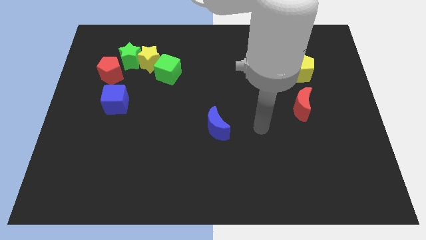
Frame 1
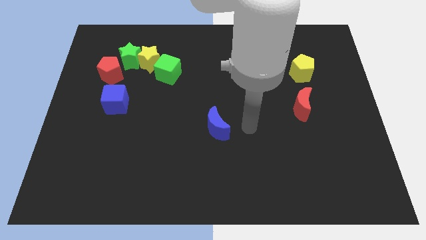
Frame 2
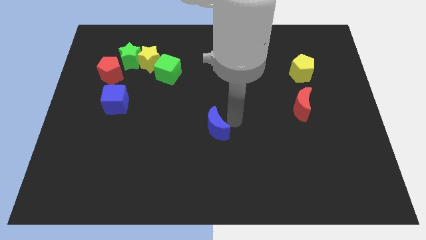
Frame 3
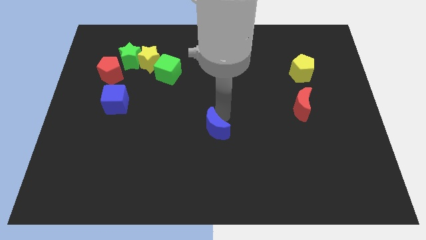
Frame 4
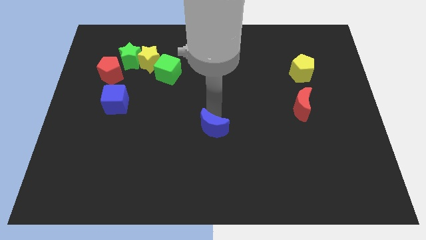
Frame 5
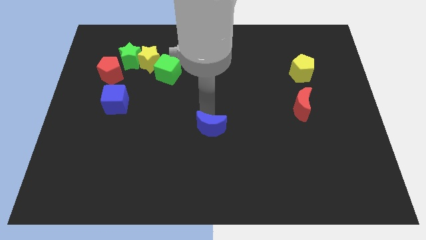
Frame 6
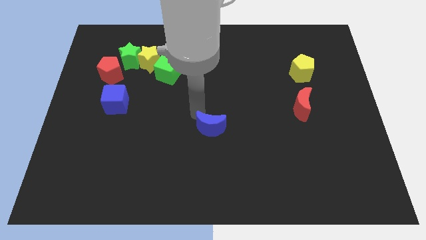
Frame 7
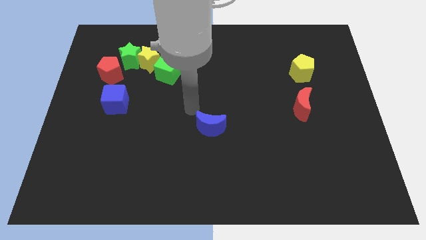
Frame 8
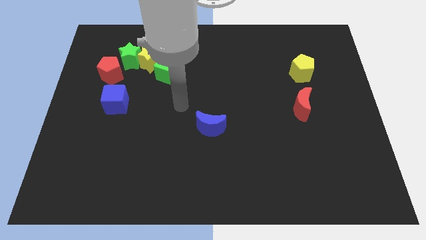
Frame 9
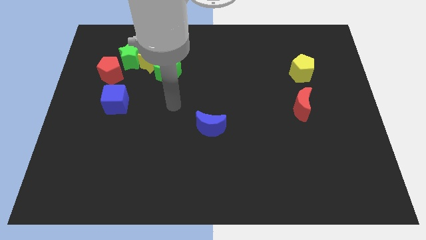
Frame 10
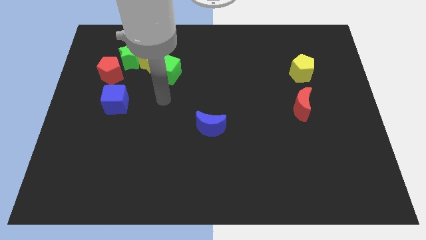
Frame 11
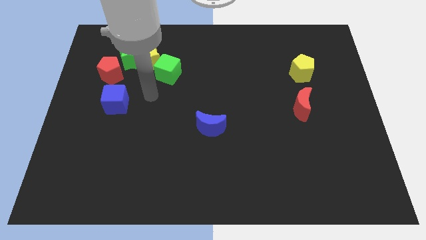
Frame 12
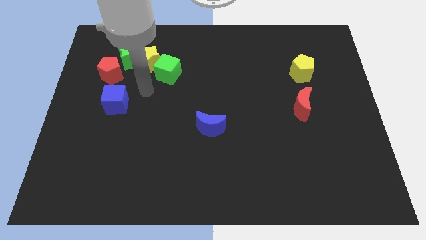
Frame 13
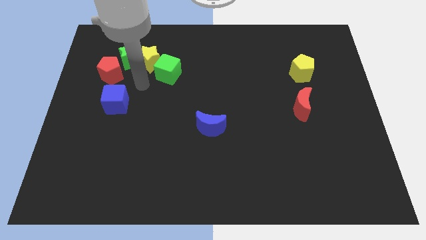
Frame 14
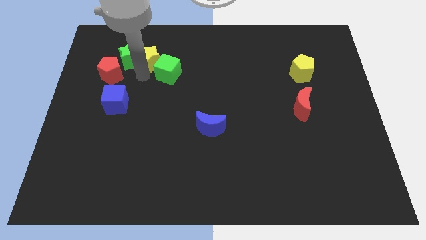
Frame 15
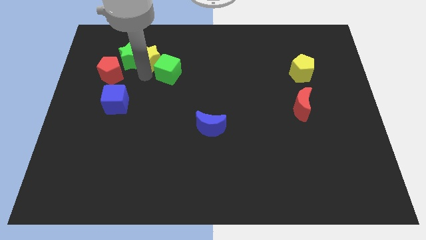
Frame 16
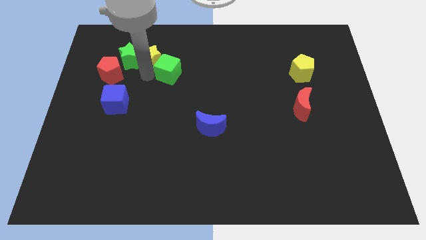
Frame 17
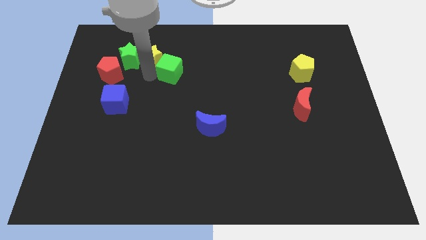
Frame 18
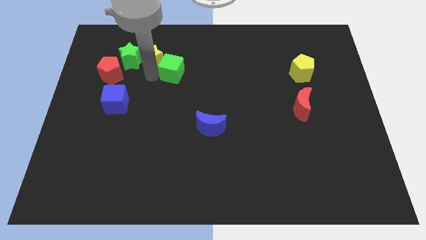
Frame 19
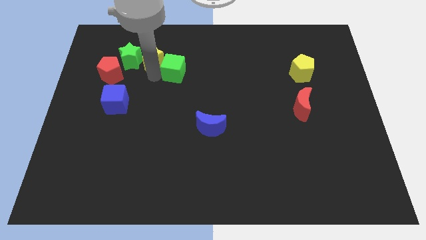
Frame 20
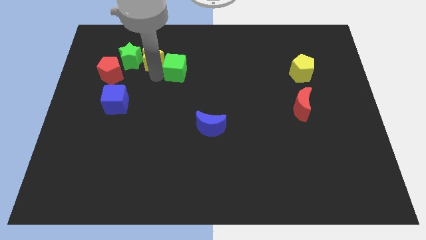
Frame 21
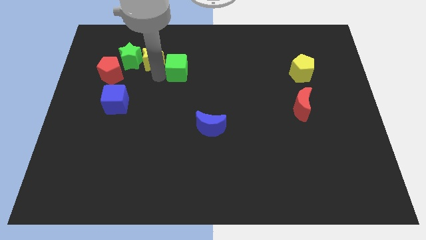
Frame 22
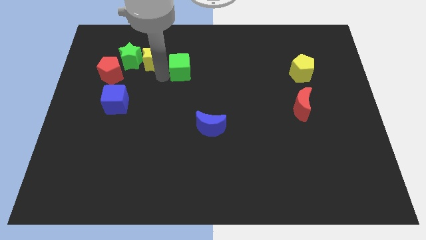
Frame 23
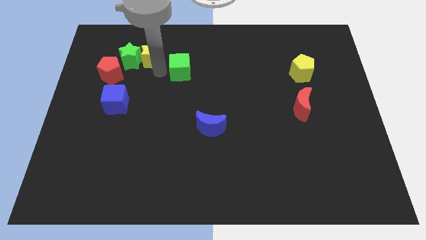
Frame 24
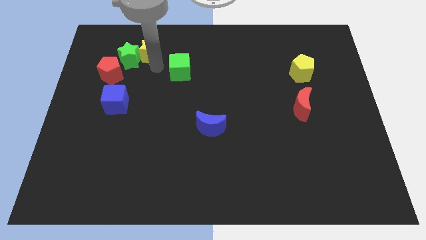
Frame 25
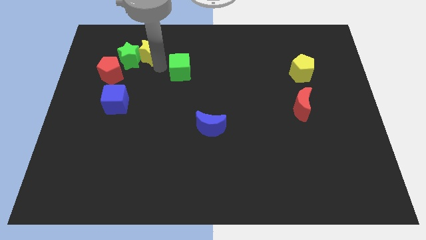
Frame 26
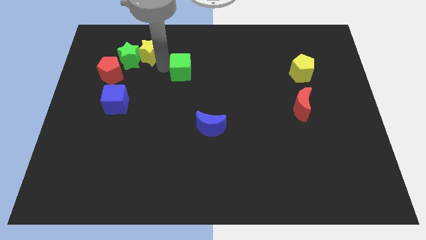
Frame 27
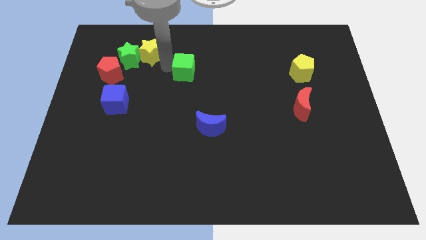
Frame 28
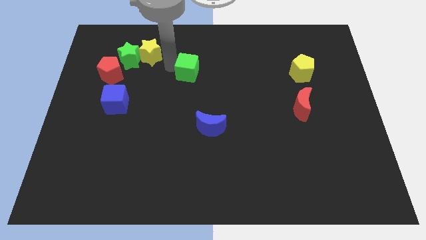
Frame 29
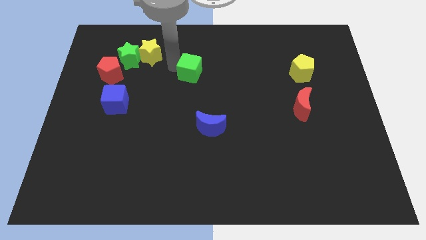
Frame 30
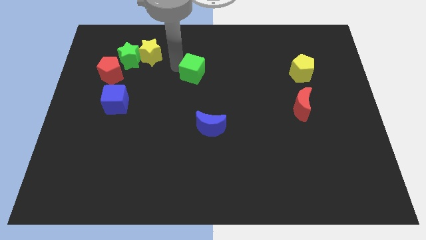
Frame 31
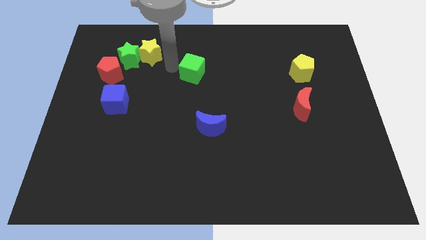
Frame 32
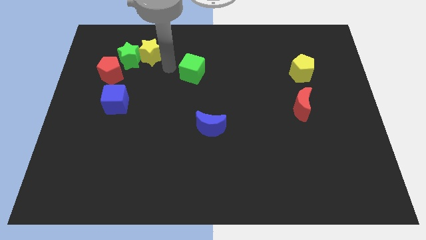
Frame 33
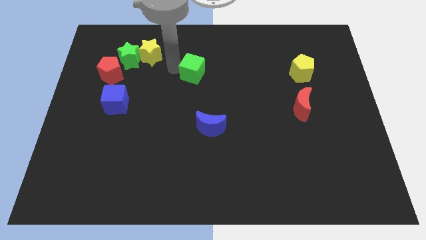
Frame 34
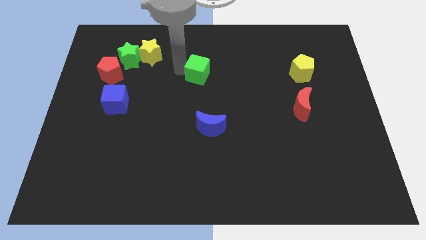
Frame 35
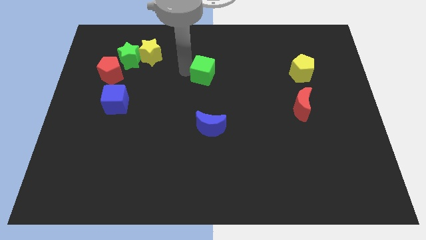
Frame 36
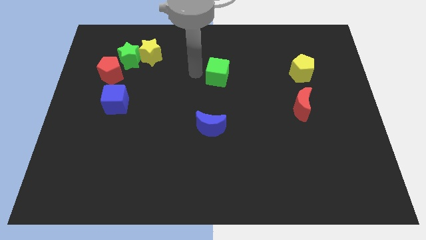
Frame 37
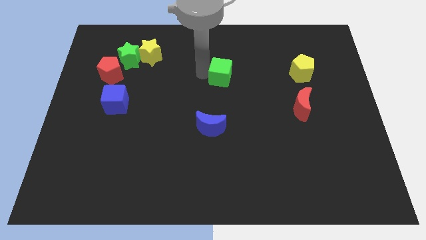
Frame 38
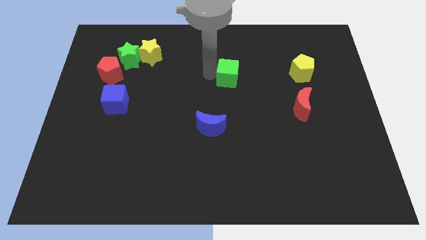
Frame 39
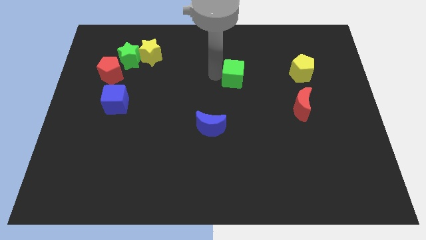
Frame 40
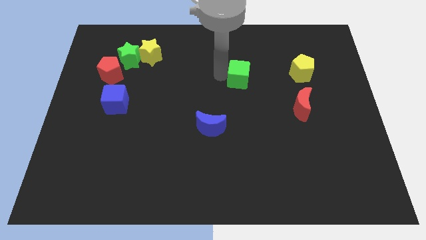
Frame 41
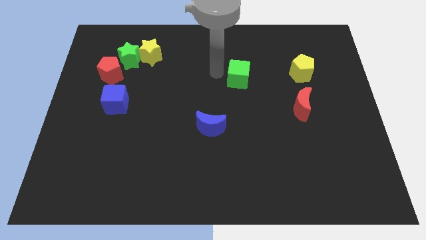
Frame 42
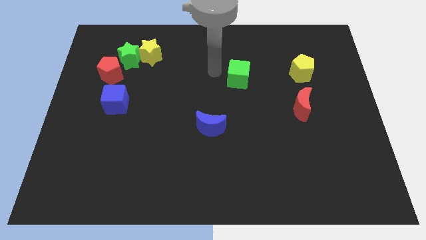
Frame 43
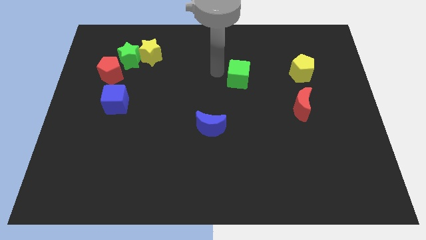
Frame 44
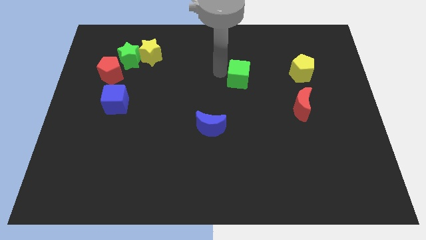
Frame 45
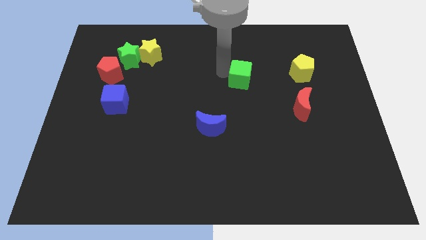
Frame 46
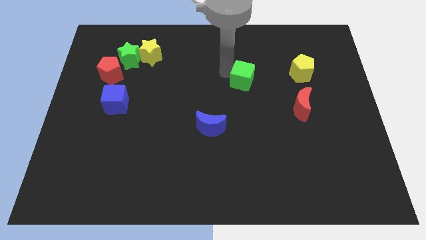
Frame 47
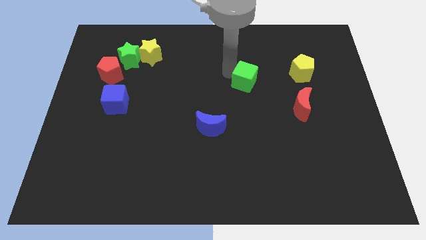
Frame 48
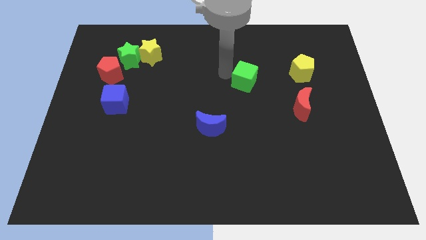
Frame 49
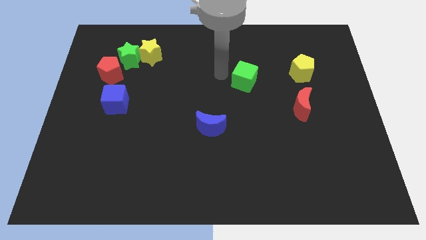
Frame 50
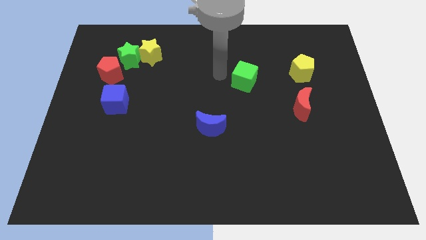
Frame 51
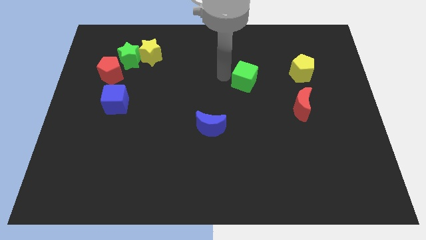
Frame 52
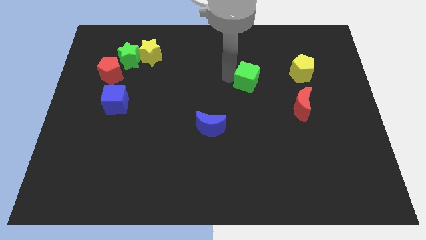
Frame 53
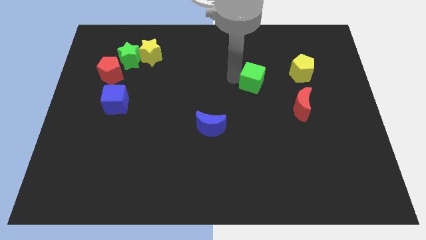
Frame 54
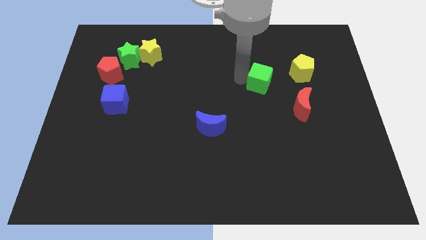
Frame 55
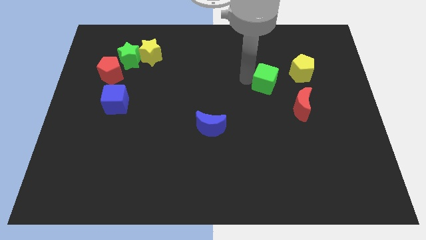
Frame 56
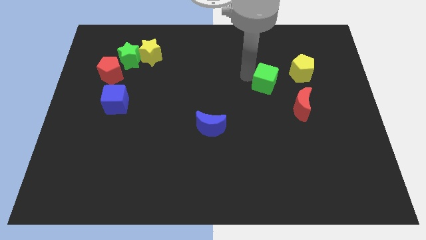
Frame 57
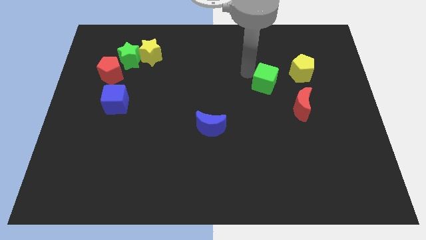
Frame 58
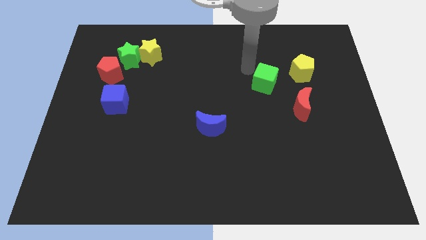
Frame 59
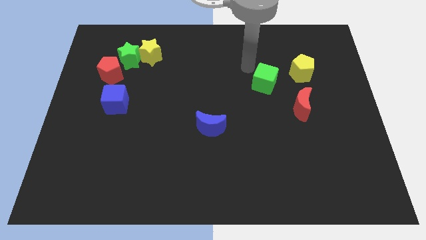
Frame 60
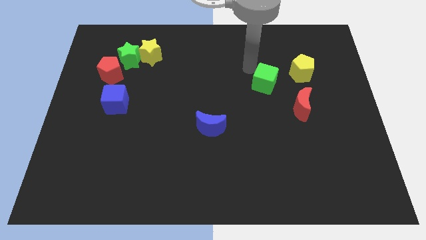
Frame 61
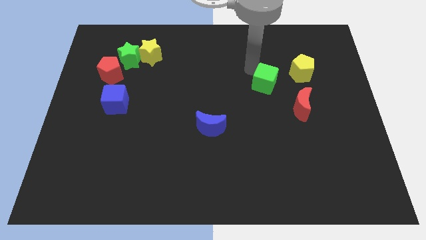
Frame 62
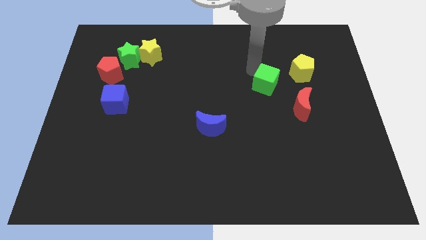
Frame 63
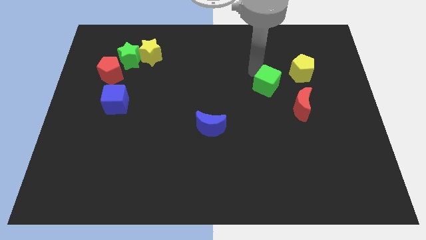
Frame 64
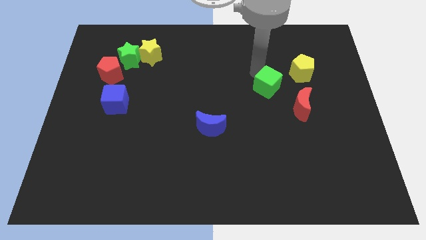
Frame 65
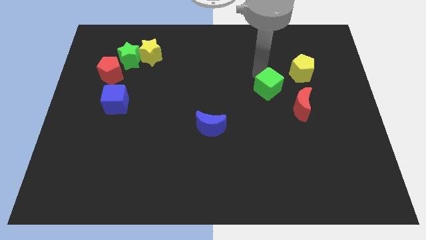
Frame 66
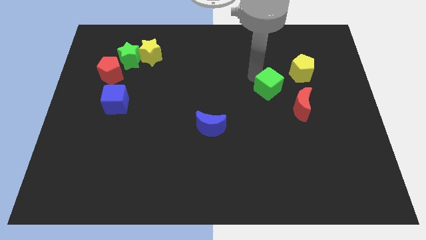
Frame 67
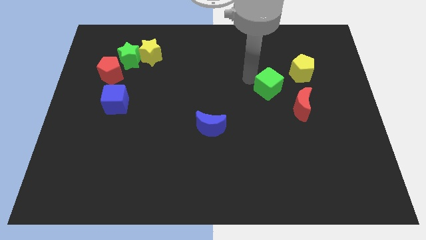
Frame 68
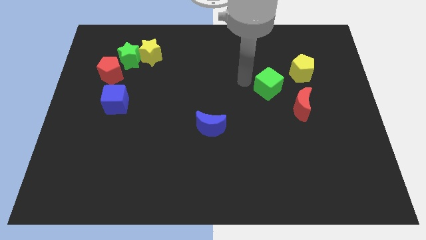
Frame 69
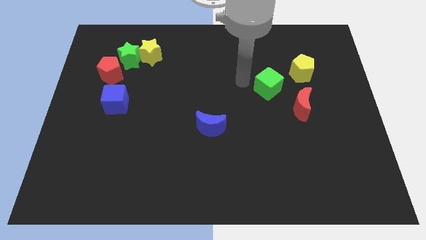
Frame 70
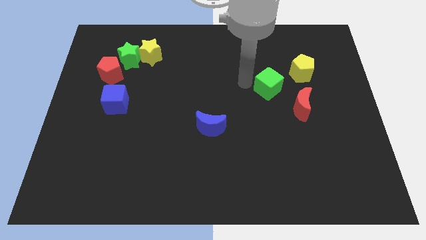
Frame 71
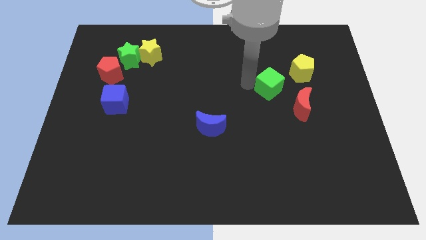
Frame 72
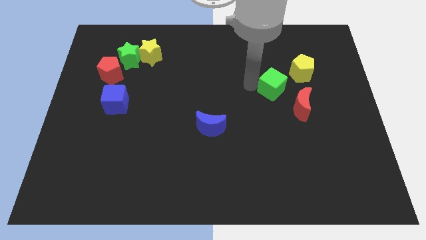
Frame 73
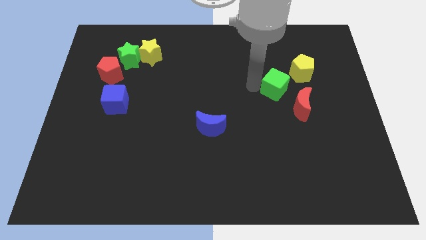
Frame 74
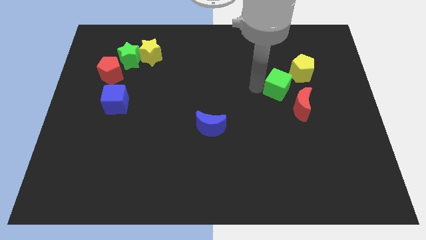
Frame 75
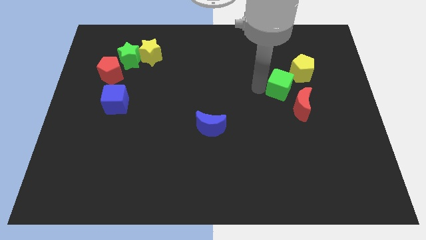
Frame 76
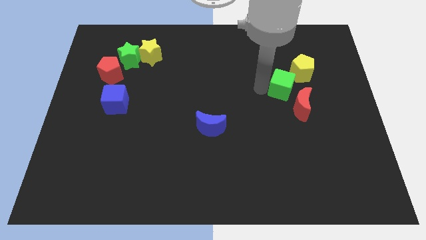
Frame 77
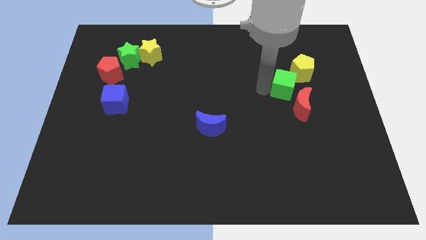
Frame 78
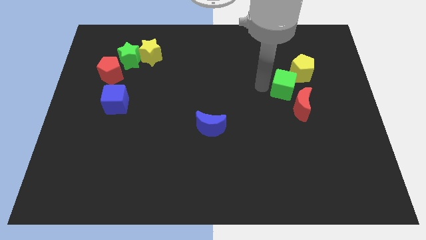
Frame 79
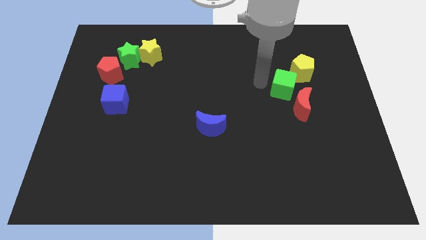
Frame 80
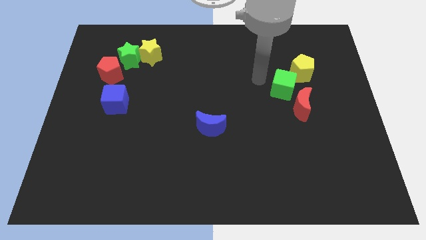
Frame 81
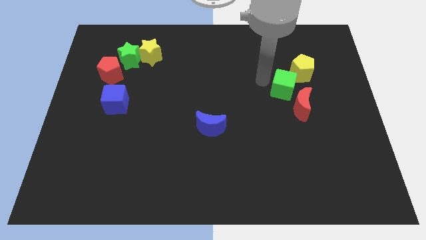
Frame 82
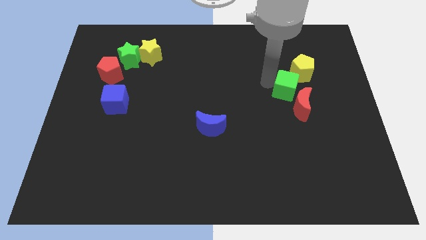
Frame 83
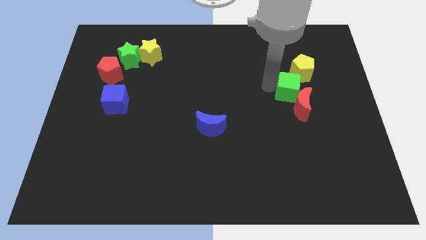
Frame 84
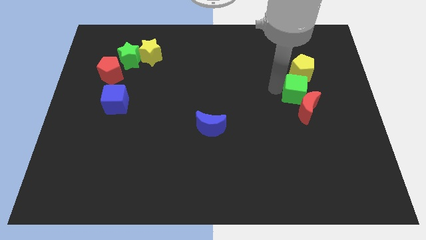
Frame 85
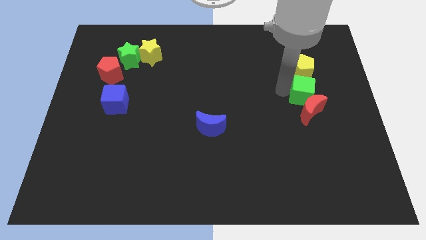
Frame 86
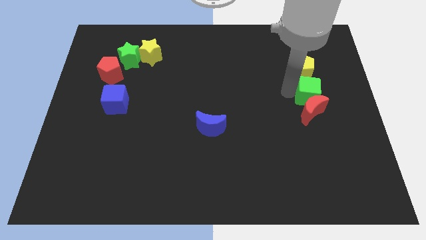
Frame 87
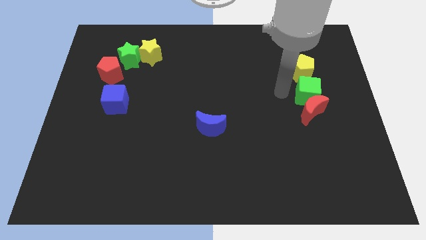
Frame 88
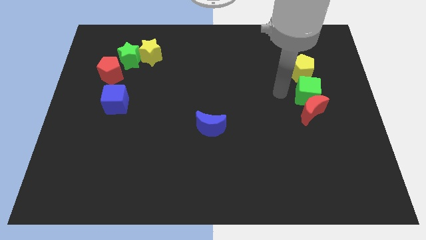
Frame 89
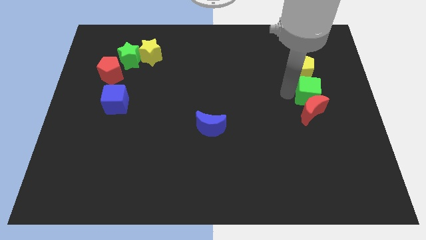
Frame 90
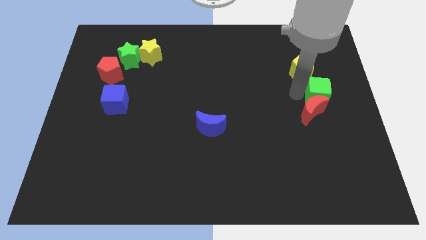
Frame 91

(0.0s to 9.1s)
slide the green cube to the center right
